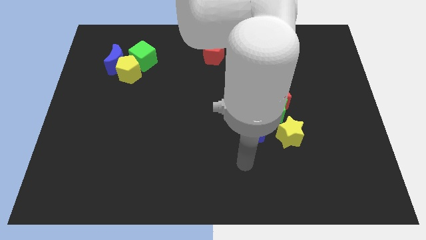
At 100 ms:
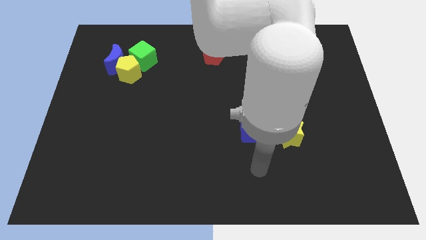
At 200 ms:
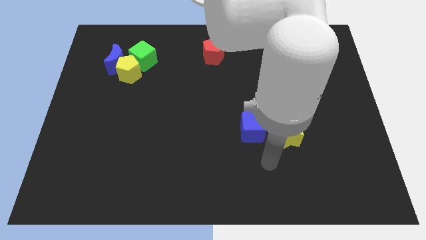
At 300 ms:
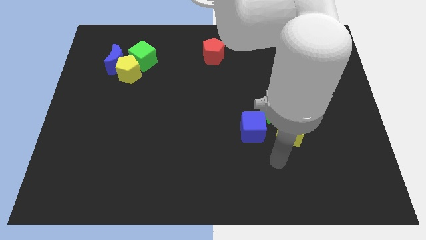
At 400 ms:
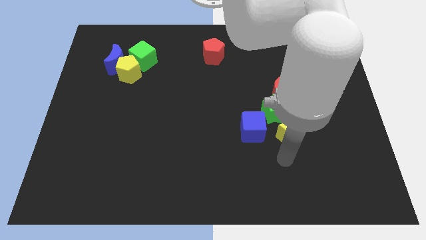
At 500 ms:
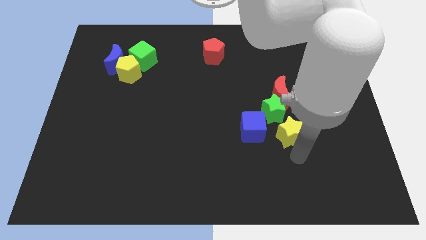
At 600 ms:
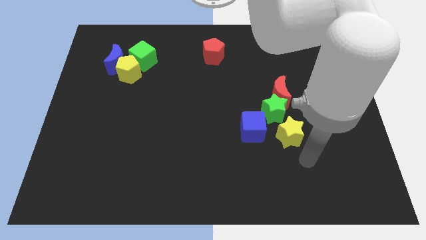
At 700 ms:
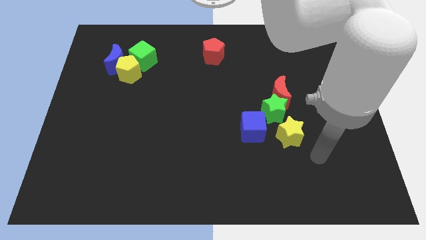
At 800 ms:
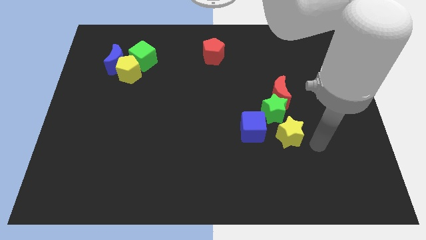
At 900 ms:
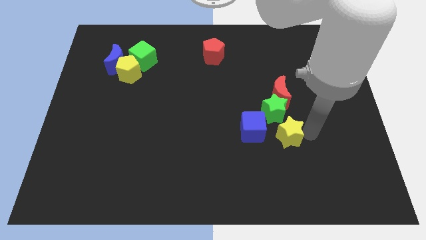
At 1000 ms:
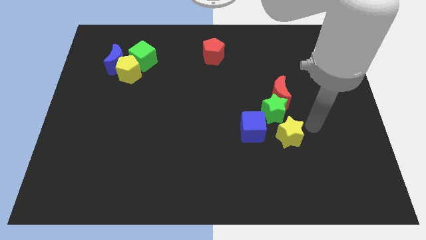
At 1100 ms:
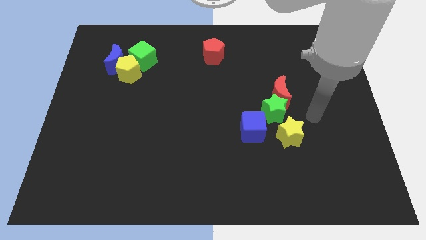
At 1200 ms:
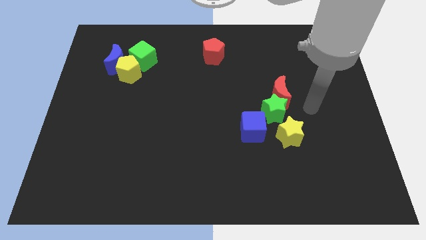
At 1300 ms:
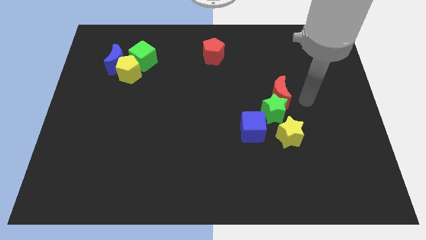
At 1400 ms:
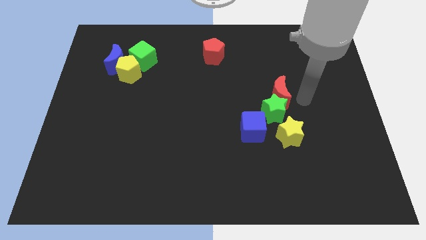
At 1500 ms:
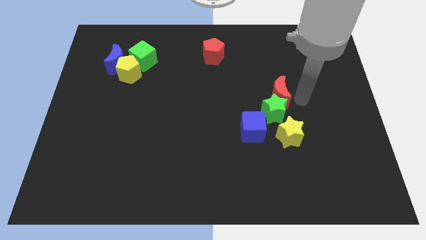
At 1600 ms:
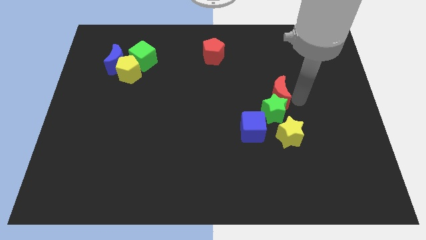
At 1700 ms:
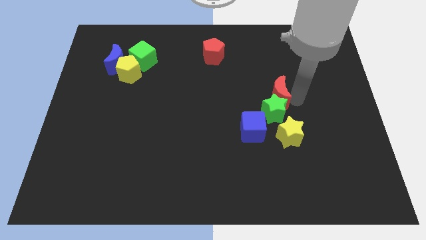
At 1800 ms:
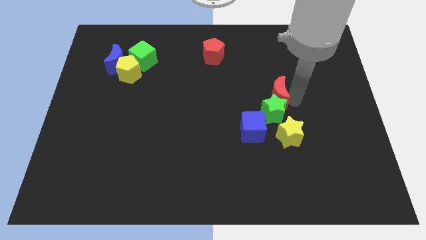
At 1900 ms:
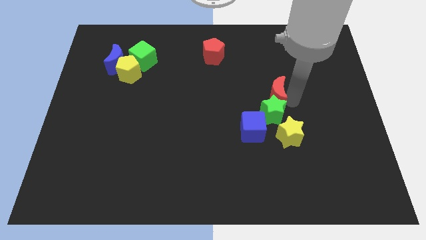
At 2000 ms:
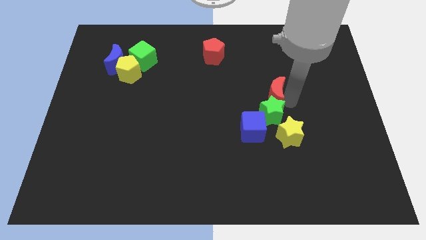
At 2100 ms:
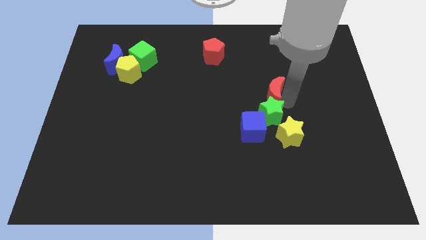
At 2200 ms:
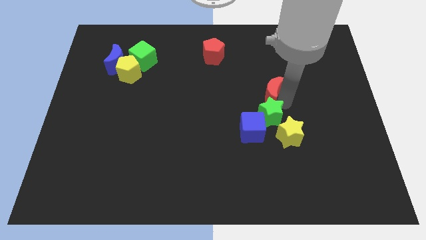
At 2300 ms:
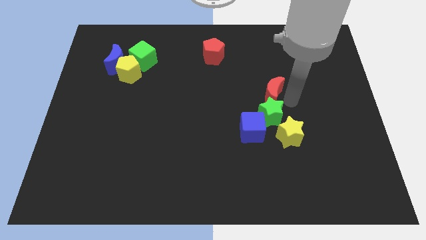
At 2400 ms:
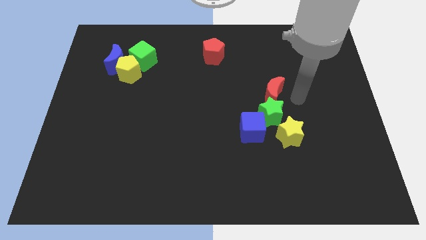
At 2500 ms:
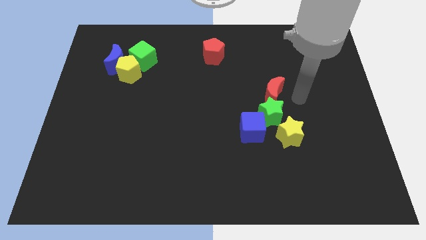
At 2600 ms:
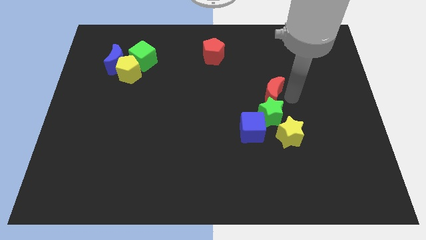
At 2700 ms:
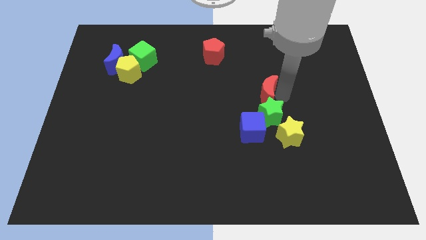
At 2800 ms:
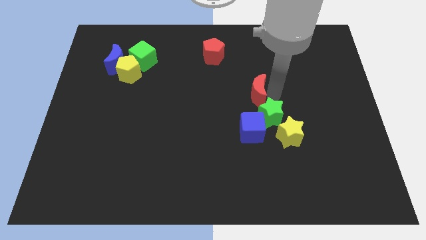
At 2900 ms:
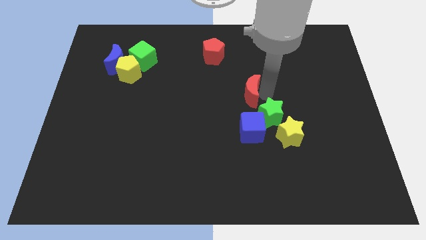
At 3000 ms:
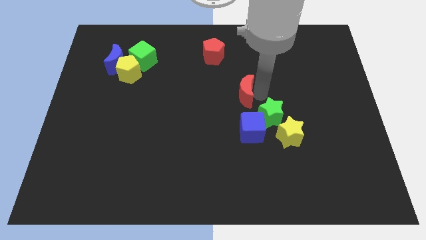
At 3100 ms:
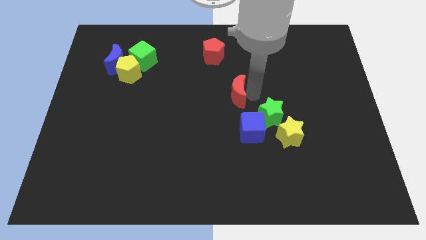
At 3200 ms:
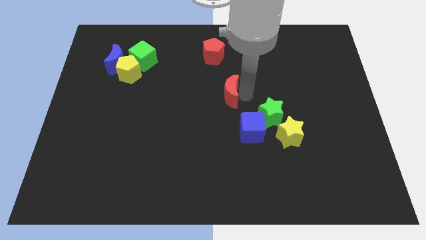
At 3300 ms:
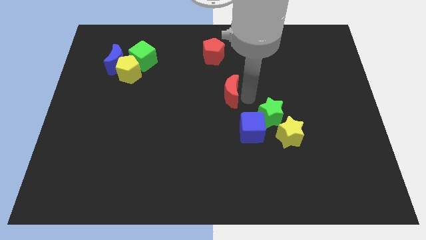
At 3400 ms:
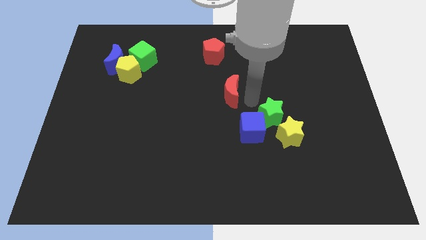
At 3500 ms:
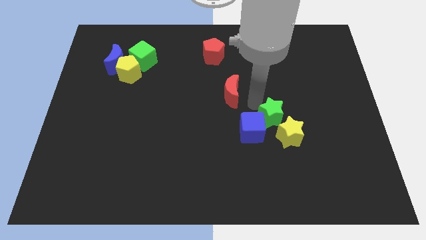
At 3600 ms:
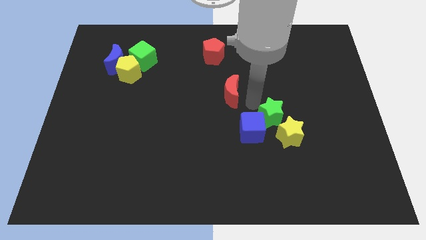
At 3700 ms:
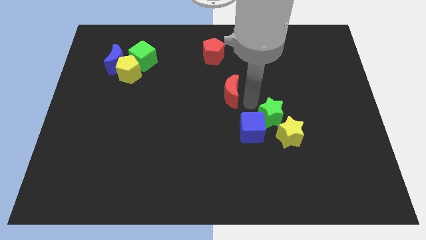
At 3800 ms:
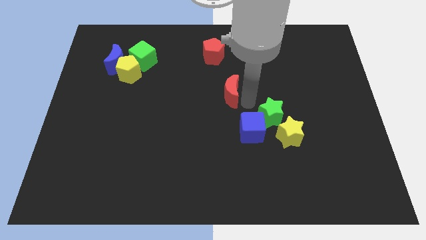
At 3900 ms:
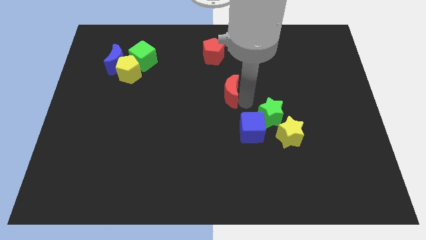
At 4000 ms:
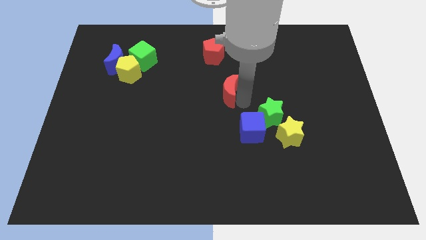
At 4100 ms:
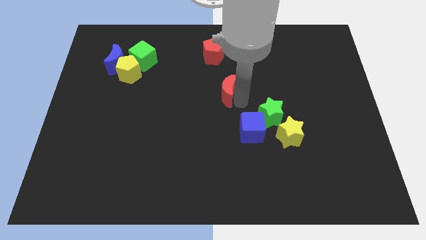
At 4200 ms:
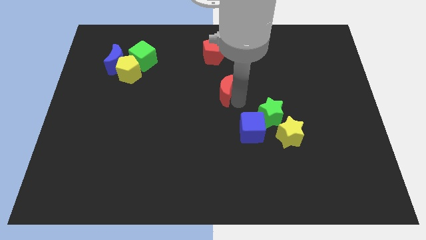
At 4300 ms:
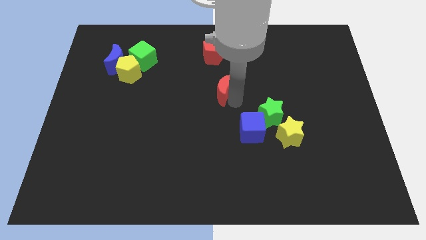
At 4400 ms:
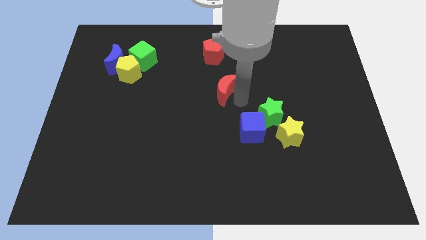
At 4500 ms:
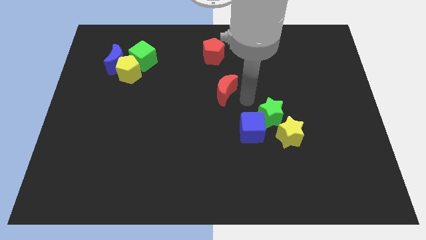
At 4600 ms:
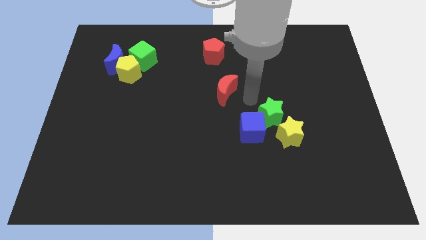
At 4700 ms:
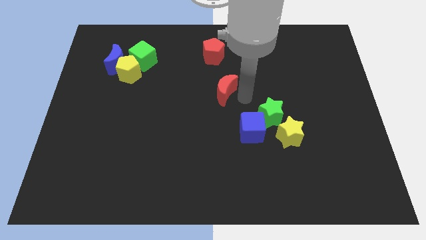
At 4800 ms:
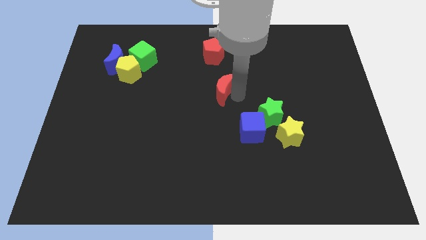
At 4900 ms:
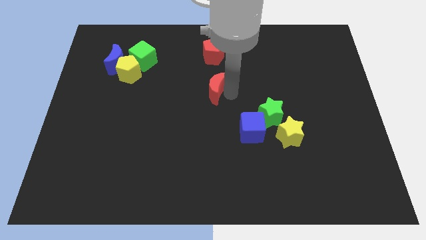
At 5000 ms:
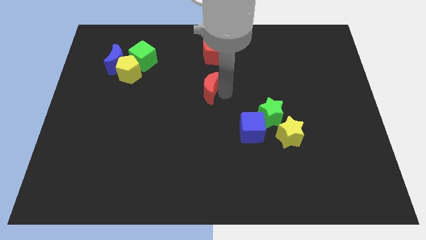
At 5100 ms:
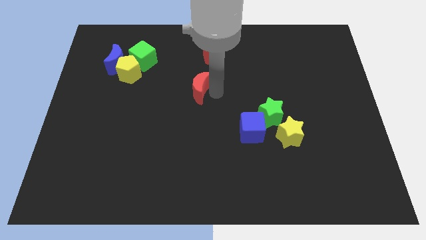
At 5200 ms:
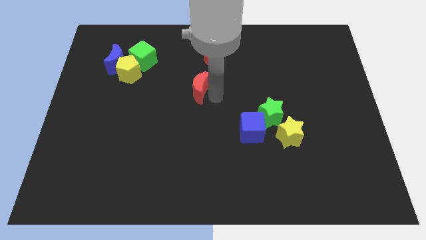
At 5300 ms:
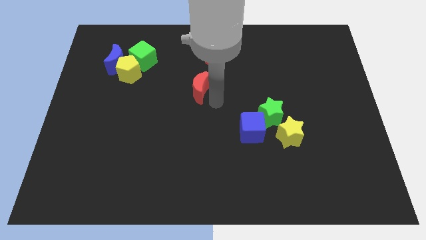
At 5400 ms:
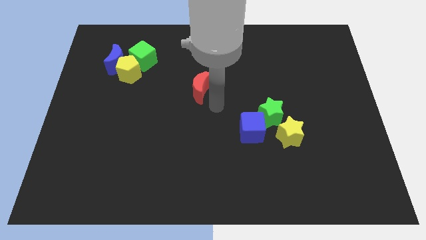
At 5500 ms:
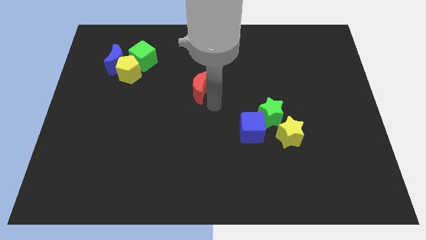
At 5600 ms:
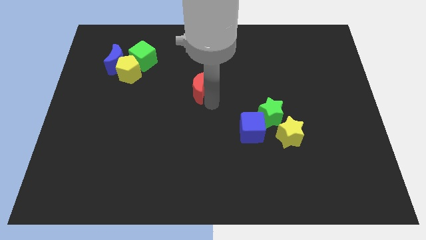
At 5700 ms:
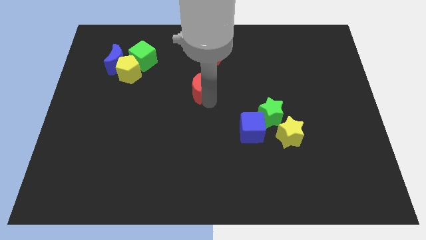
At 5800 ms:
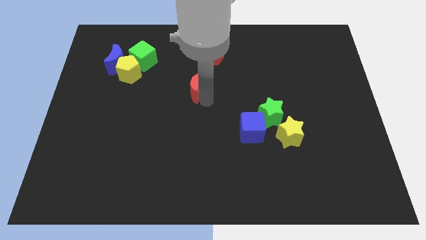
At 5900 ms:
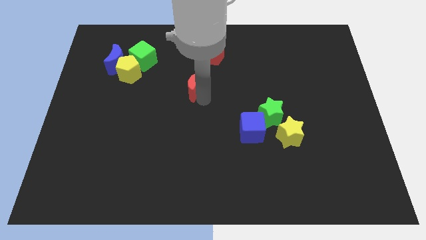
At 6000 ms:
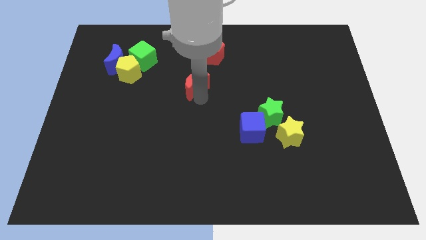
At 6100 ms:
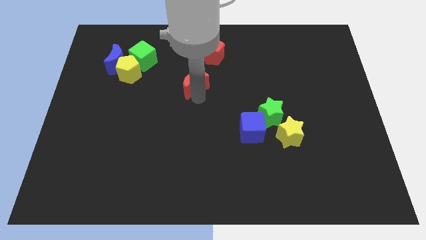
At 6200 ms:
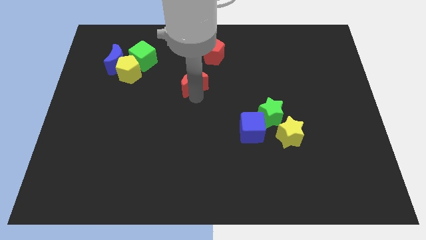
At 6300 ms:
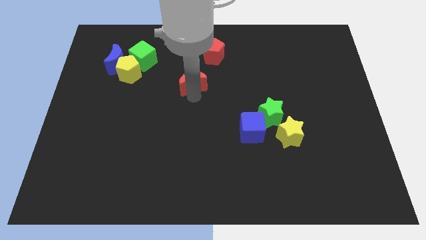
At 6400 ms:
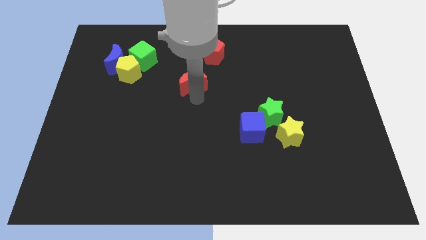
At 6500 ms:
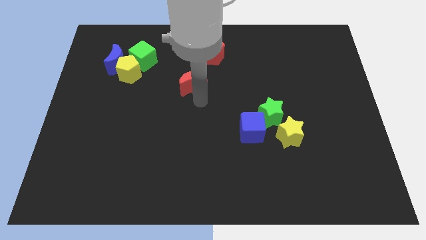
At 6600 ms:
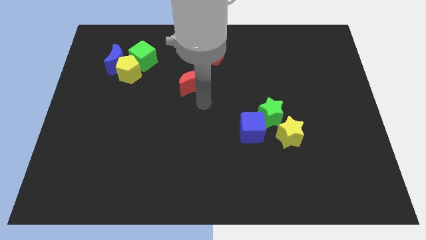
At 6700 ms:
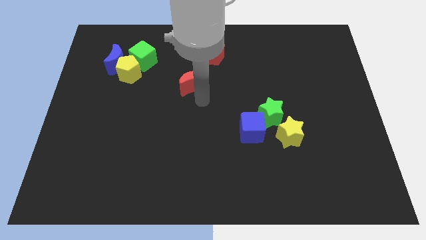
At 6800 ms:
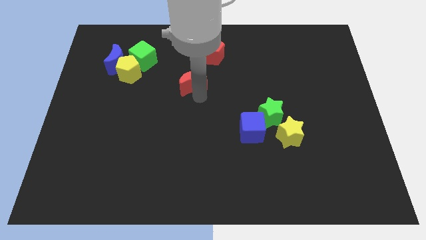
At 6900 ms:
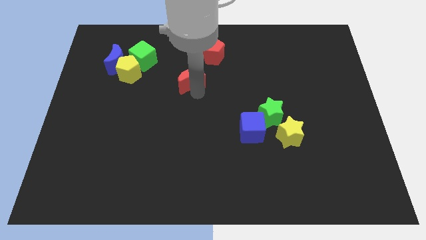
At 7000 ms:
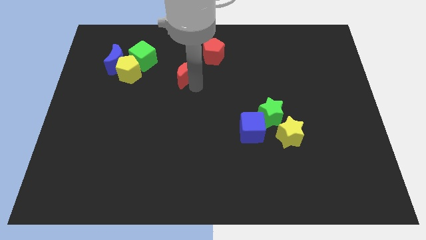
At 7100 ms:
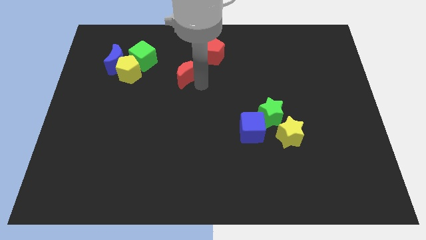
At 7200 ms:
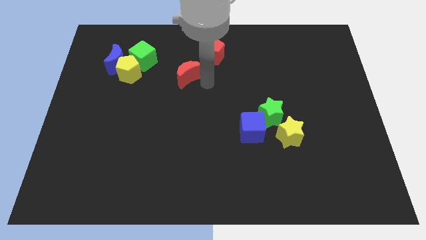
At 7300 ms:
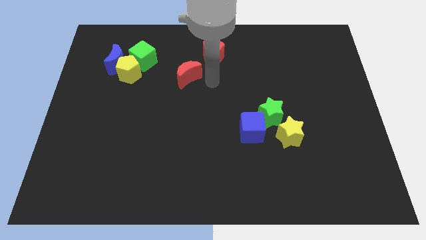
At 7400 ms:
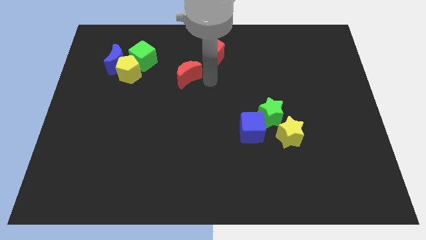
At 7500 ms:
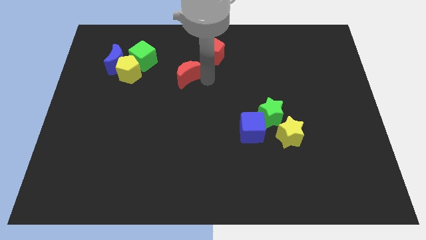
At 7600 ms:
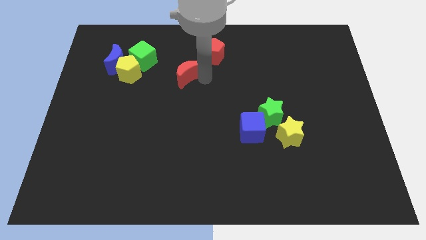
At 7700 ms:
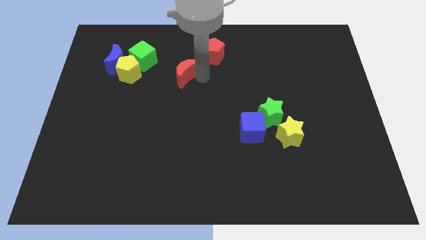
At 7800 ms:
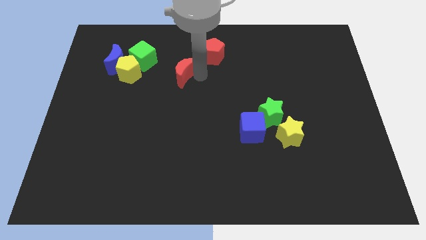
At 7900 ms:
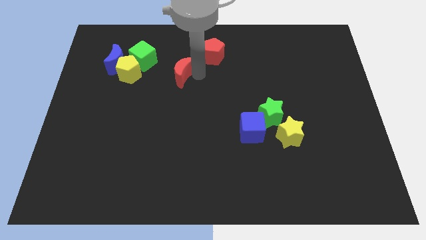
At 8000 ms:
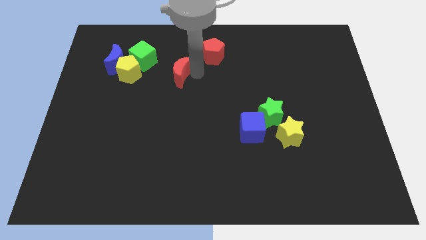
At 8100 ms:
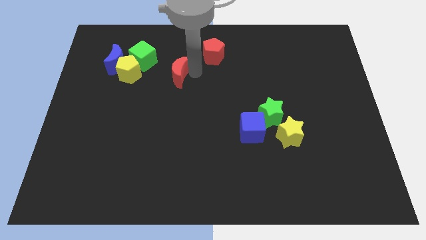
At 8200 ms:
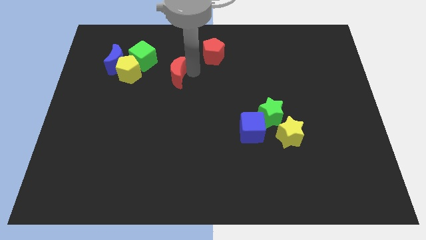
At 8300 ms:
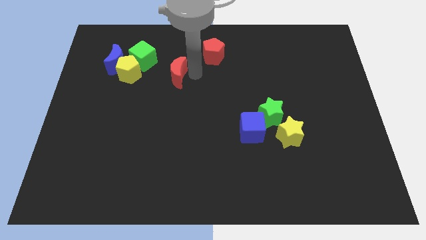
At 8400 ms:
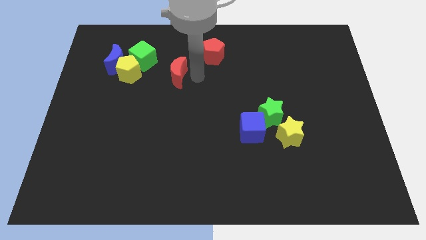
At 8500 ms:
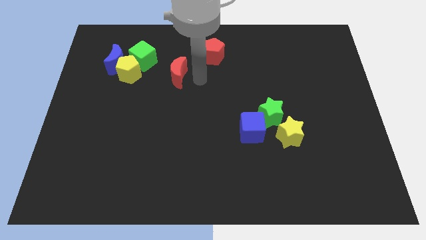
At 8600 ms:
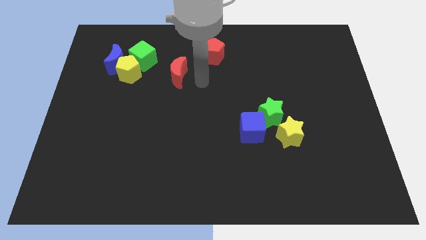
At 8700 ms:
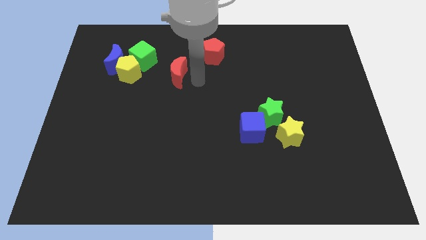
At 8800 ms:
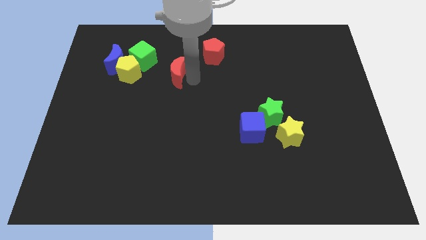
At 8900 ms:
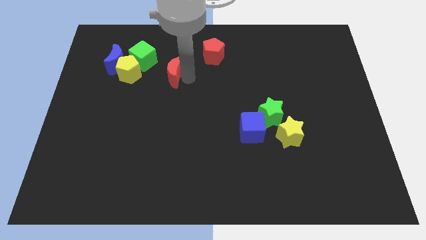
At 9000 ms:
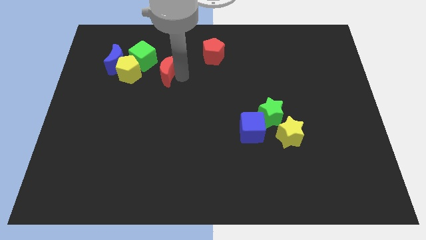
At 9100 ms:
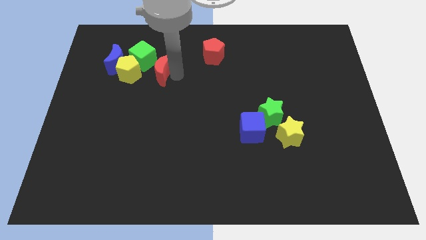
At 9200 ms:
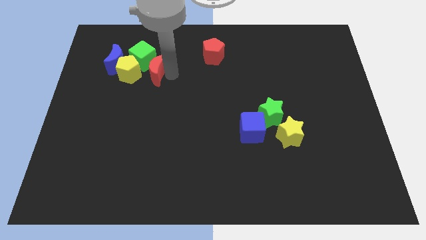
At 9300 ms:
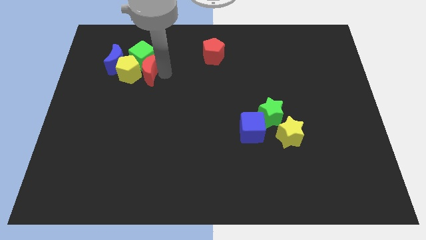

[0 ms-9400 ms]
slide the red moon to the yellow pentagon
